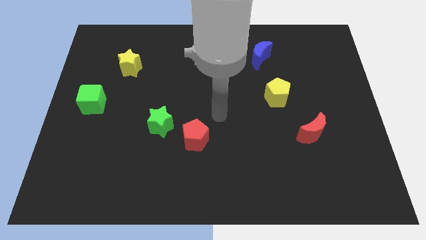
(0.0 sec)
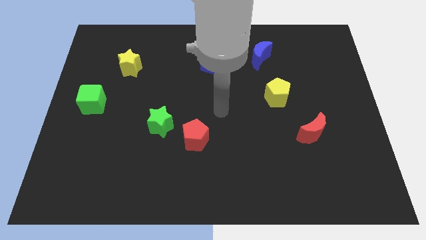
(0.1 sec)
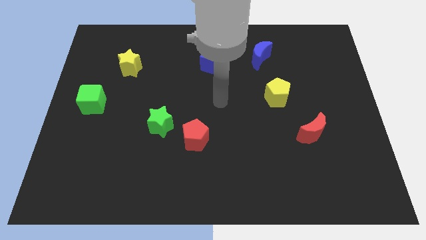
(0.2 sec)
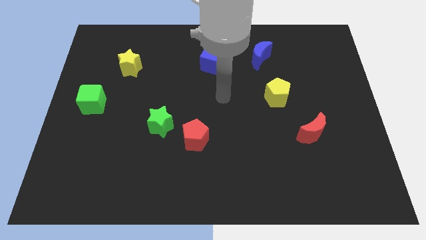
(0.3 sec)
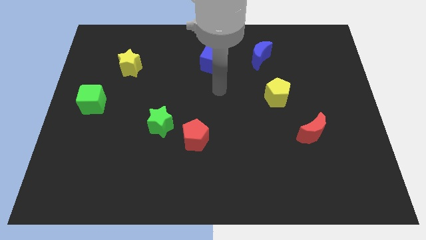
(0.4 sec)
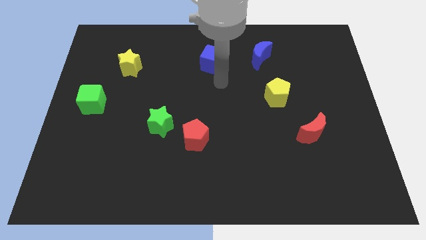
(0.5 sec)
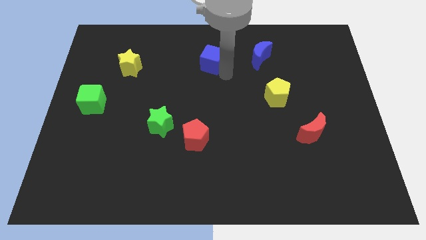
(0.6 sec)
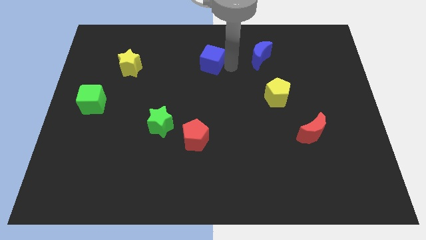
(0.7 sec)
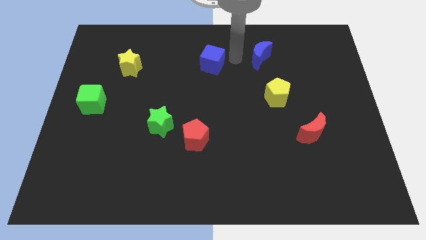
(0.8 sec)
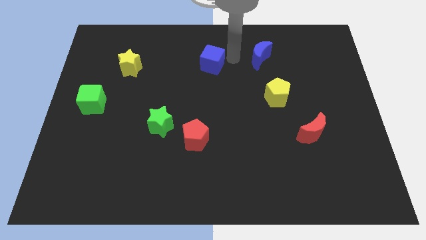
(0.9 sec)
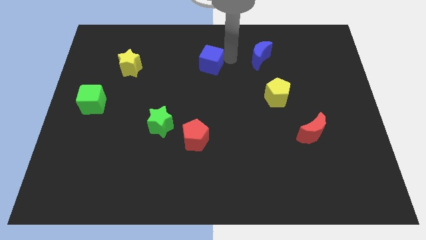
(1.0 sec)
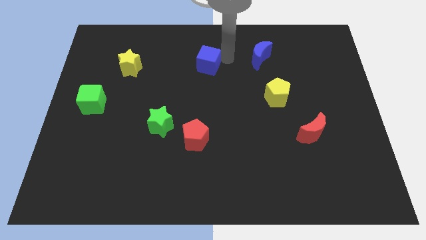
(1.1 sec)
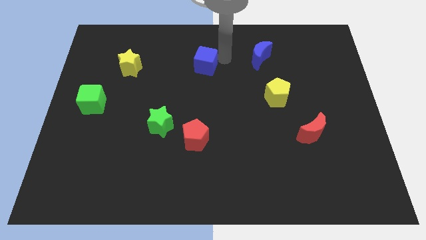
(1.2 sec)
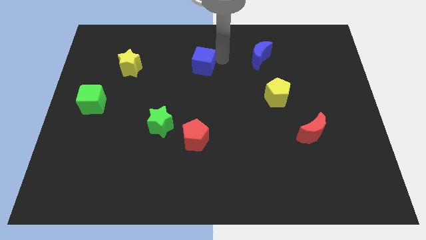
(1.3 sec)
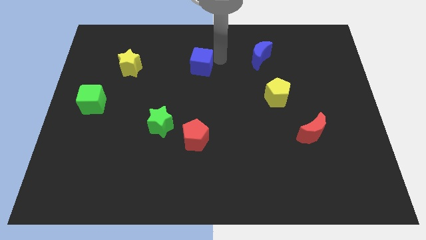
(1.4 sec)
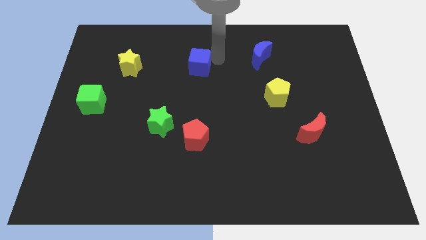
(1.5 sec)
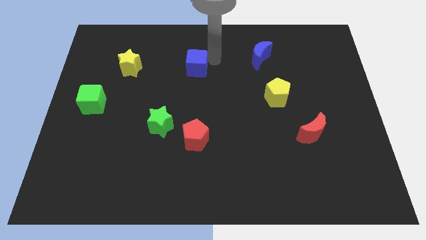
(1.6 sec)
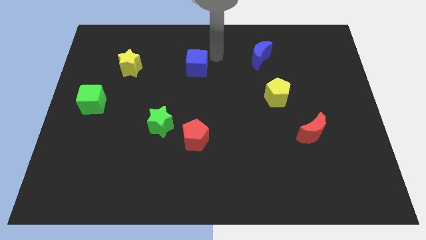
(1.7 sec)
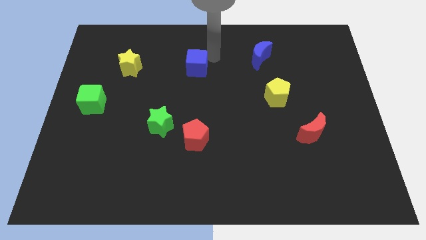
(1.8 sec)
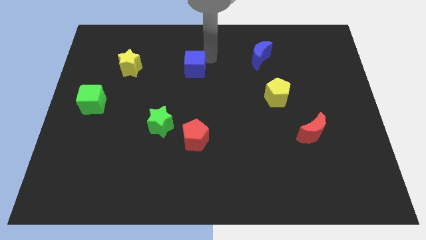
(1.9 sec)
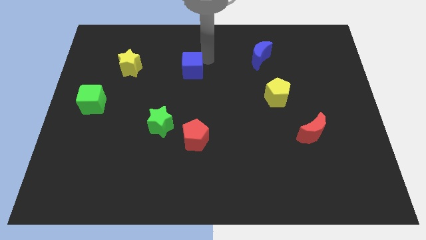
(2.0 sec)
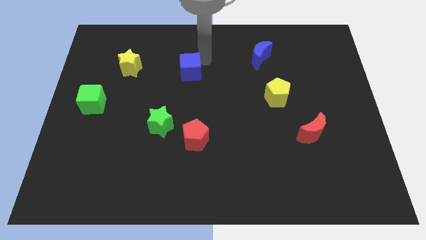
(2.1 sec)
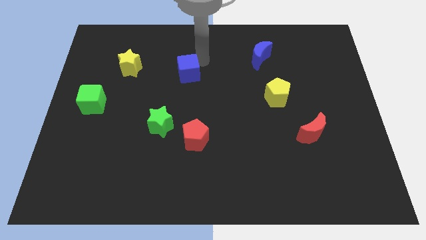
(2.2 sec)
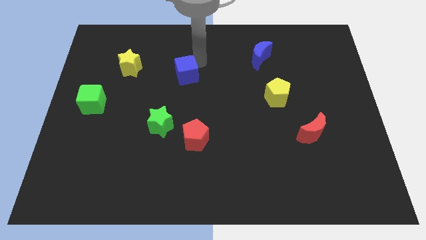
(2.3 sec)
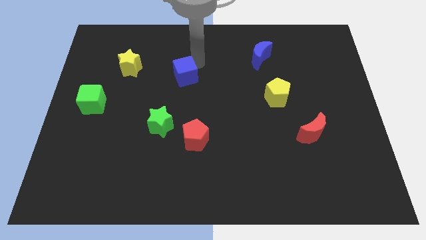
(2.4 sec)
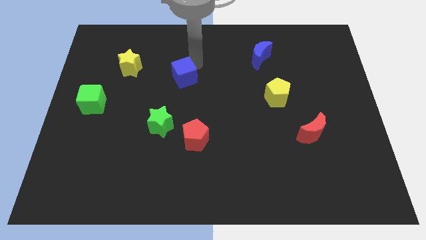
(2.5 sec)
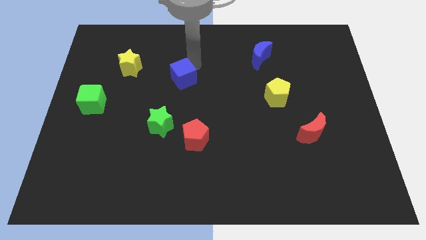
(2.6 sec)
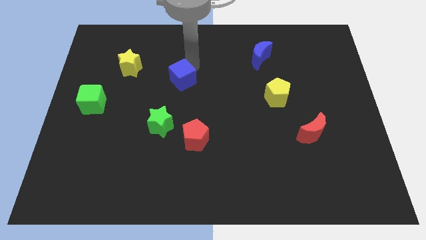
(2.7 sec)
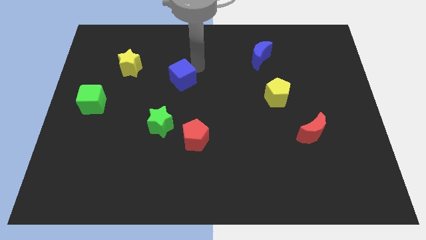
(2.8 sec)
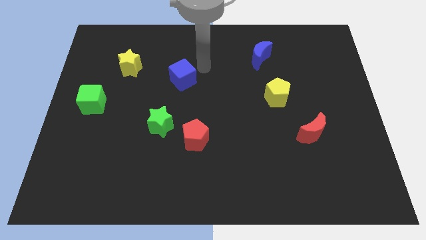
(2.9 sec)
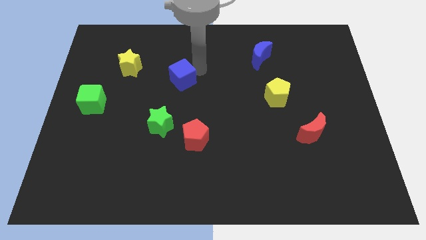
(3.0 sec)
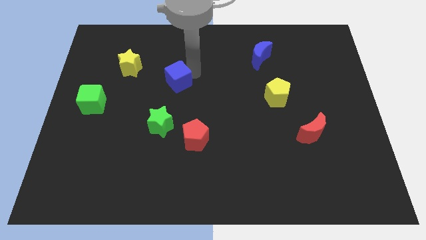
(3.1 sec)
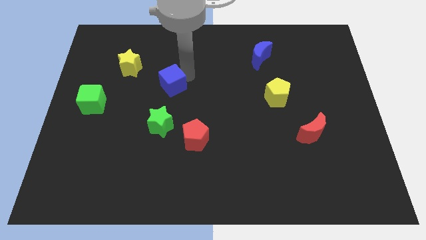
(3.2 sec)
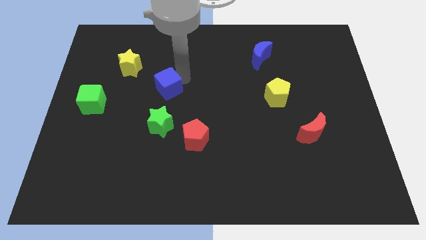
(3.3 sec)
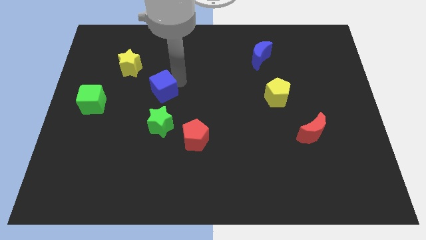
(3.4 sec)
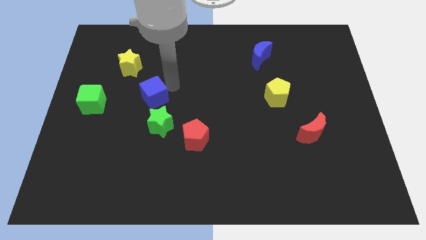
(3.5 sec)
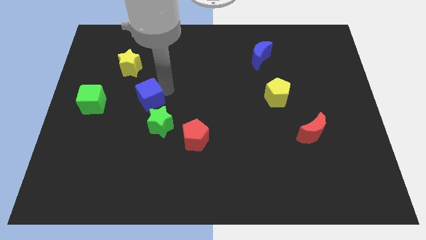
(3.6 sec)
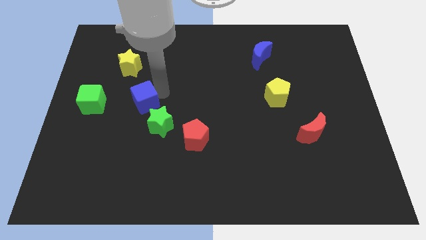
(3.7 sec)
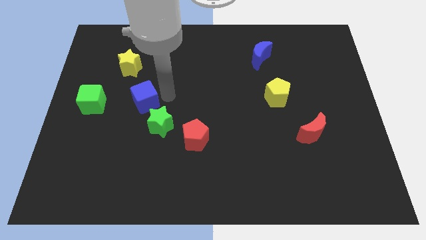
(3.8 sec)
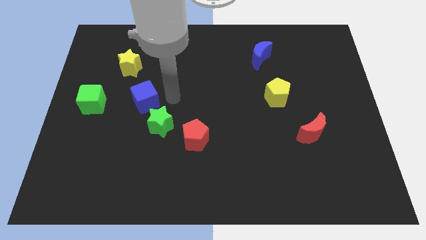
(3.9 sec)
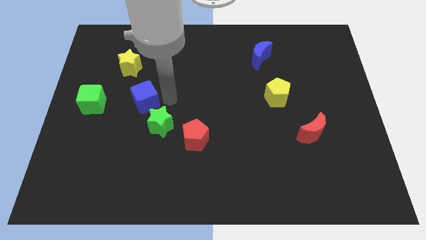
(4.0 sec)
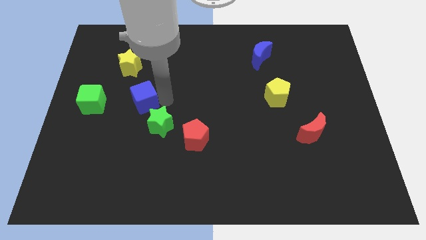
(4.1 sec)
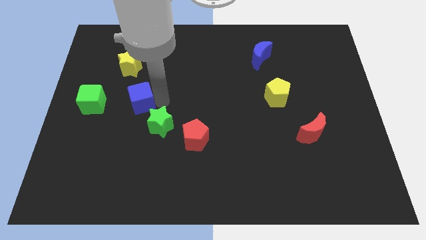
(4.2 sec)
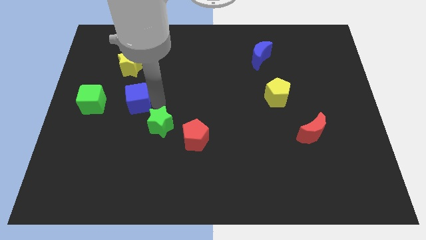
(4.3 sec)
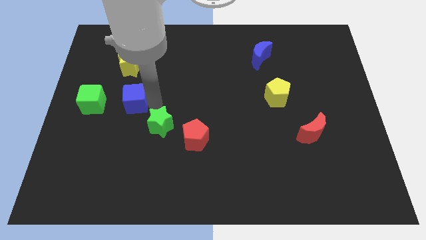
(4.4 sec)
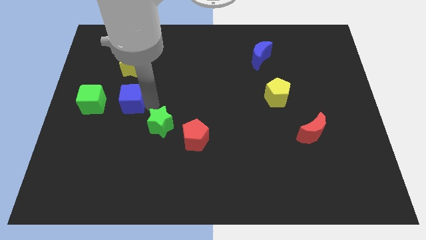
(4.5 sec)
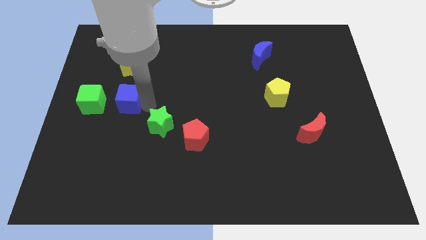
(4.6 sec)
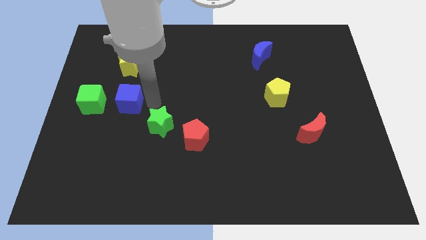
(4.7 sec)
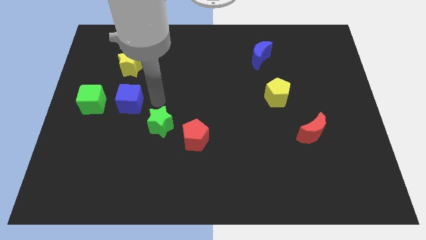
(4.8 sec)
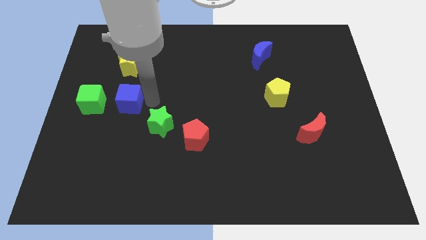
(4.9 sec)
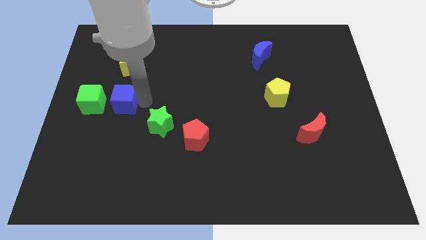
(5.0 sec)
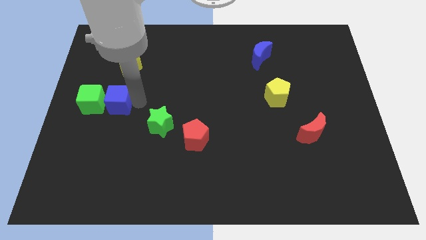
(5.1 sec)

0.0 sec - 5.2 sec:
slide the blue cube close to the green cube

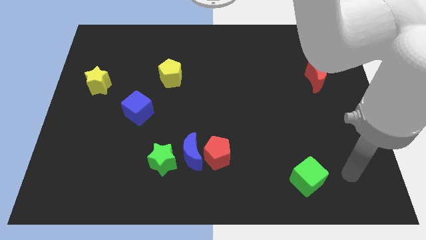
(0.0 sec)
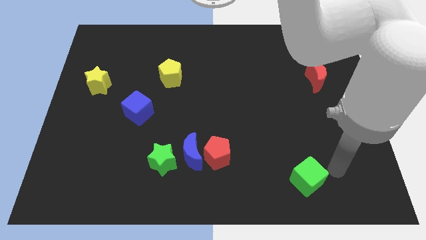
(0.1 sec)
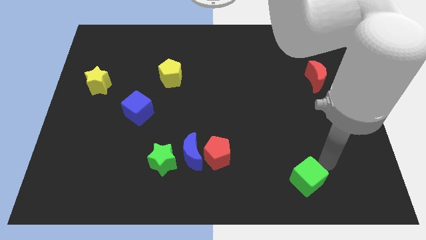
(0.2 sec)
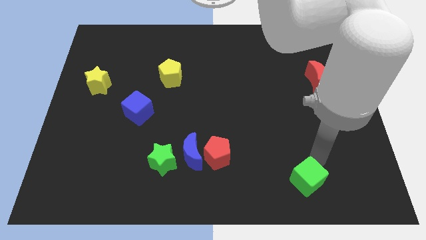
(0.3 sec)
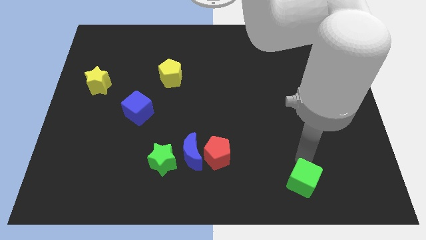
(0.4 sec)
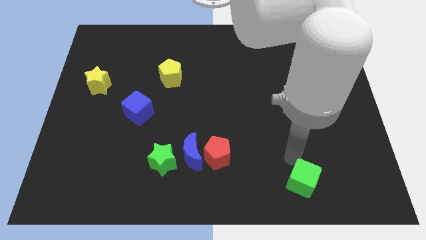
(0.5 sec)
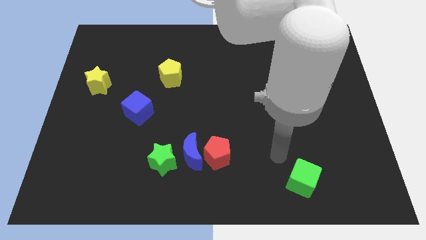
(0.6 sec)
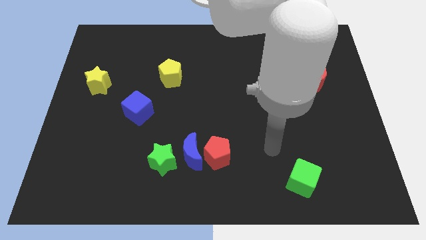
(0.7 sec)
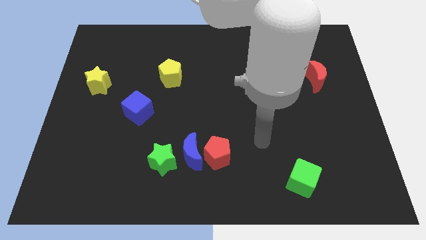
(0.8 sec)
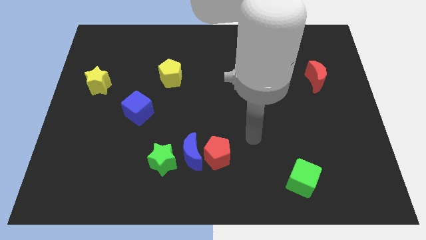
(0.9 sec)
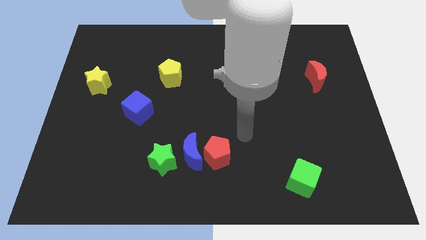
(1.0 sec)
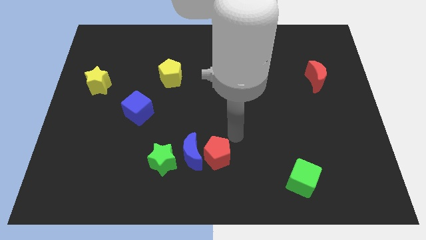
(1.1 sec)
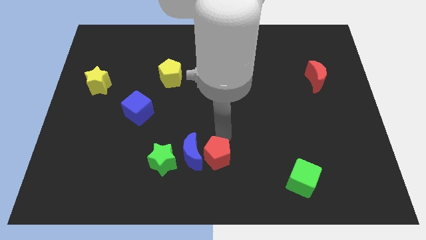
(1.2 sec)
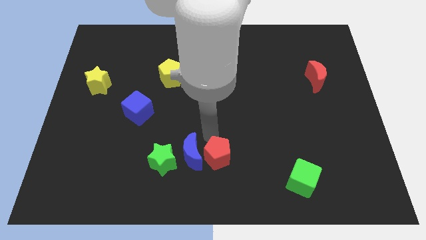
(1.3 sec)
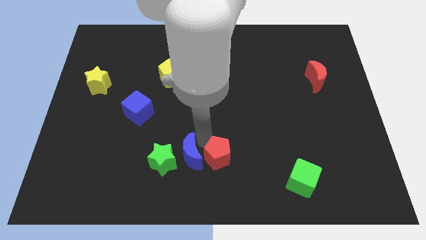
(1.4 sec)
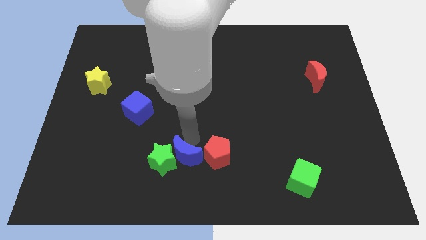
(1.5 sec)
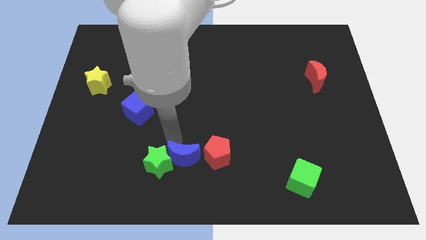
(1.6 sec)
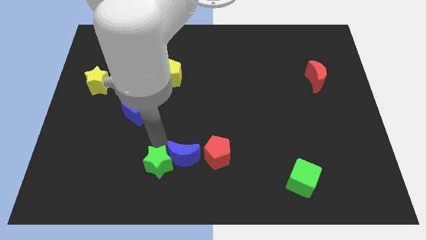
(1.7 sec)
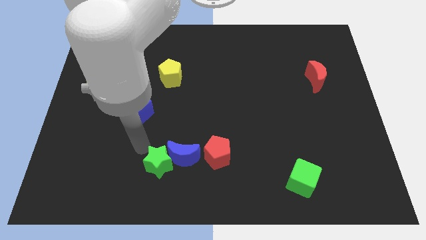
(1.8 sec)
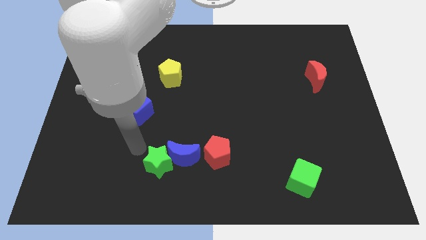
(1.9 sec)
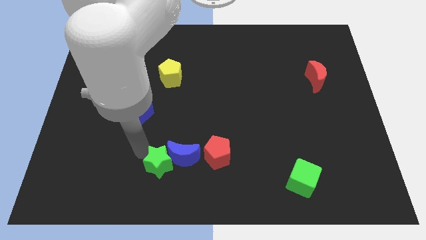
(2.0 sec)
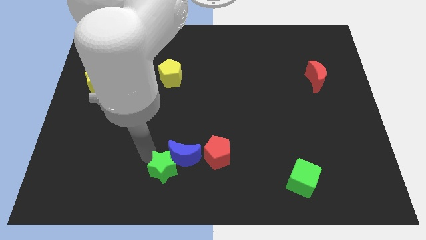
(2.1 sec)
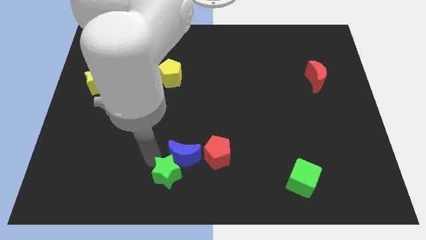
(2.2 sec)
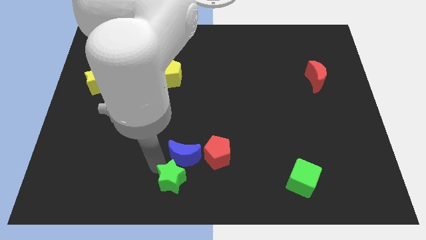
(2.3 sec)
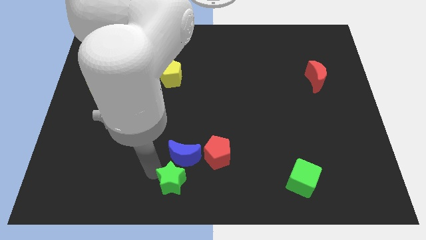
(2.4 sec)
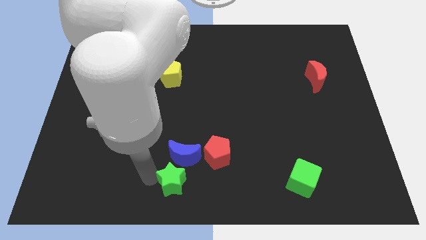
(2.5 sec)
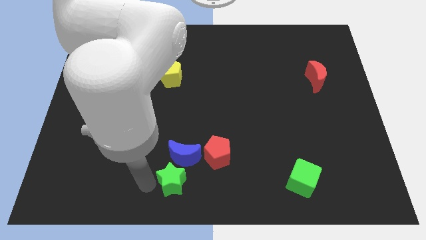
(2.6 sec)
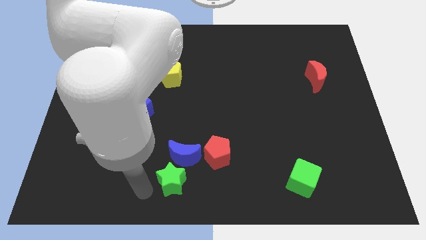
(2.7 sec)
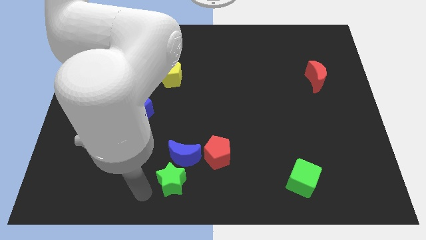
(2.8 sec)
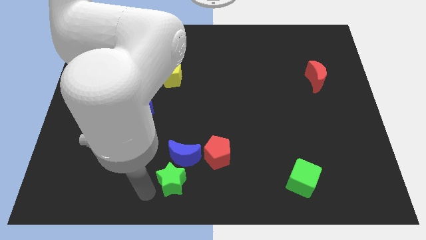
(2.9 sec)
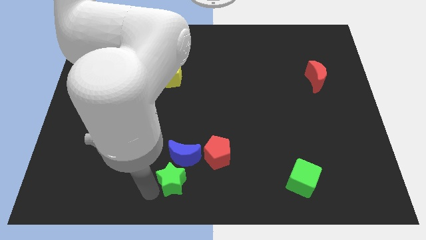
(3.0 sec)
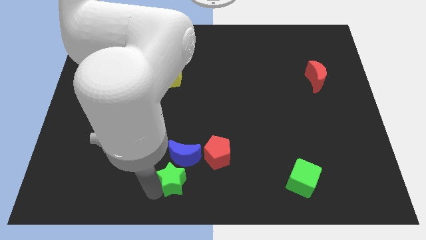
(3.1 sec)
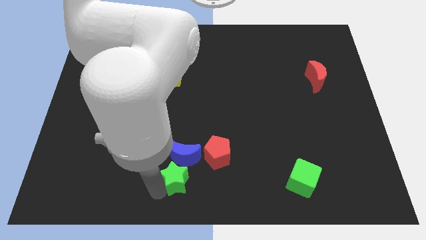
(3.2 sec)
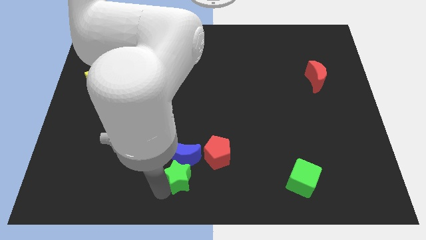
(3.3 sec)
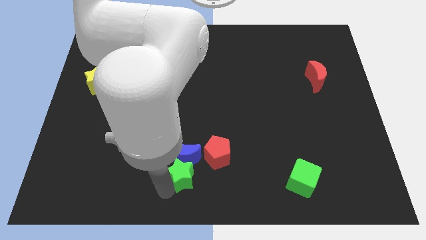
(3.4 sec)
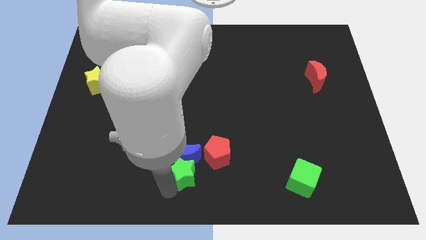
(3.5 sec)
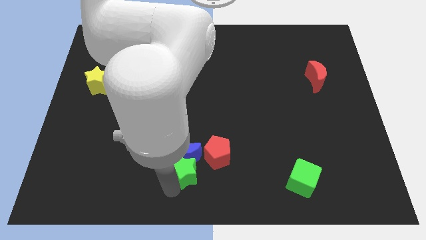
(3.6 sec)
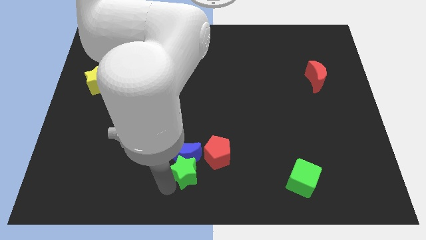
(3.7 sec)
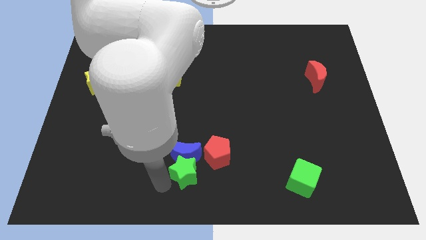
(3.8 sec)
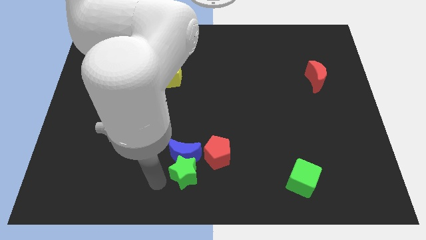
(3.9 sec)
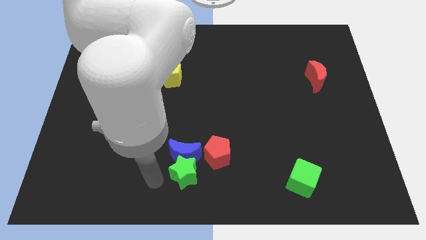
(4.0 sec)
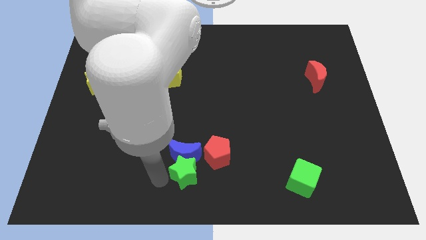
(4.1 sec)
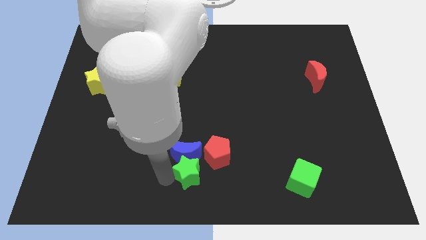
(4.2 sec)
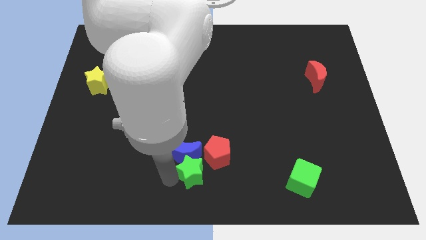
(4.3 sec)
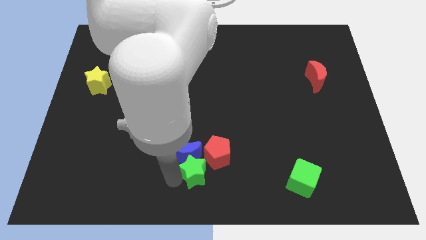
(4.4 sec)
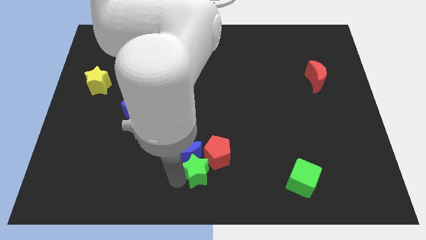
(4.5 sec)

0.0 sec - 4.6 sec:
slide the green star towards the red pentagon
